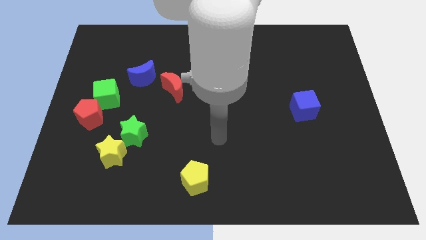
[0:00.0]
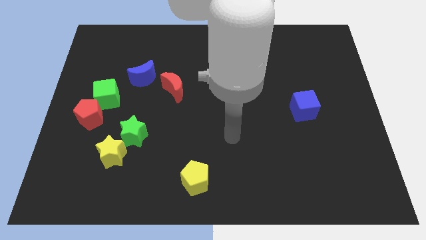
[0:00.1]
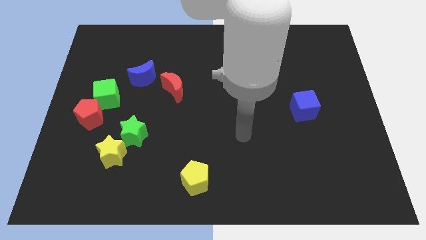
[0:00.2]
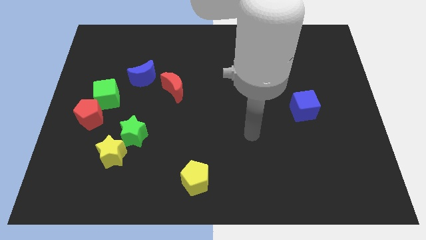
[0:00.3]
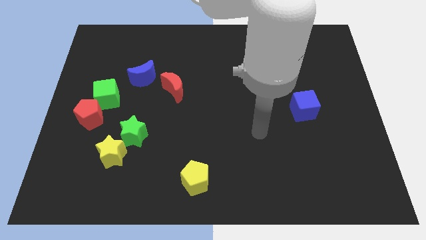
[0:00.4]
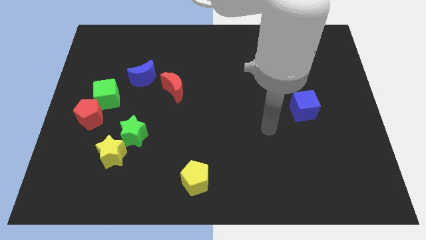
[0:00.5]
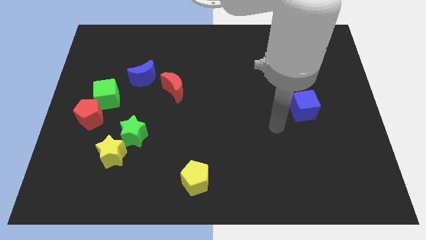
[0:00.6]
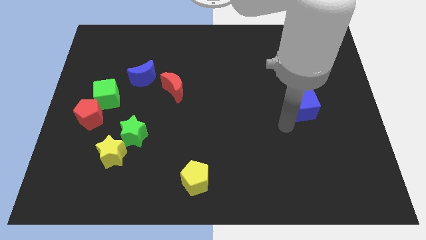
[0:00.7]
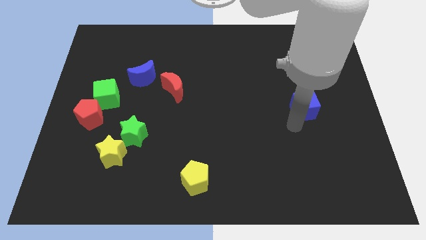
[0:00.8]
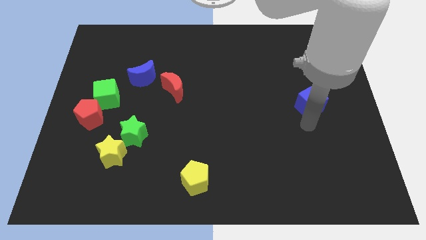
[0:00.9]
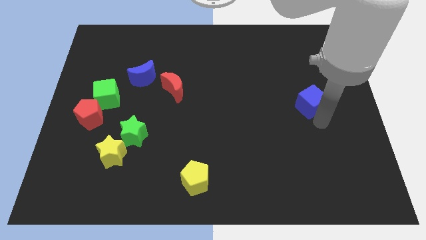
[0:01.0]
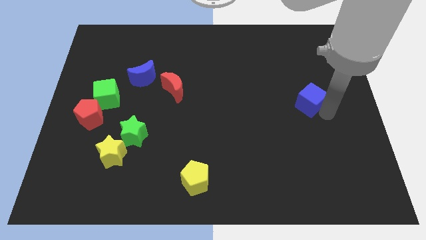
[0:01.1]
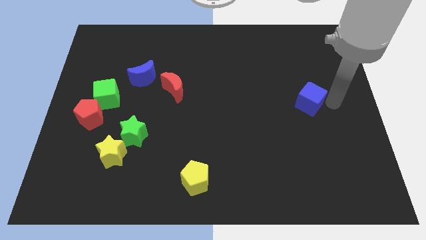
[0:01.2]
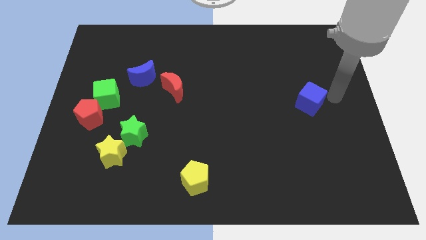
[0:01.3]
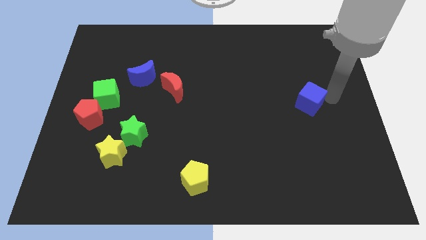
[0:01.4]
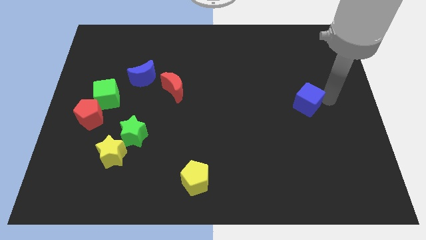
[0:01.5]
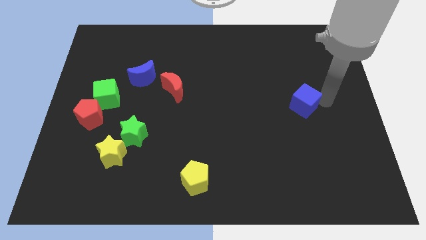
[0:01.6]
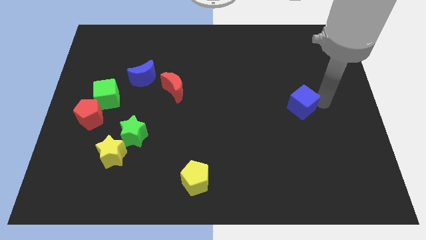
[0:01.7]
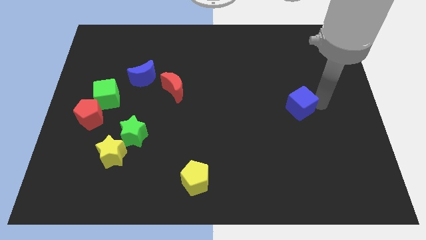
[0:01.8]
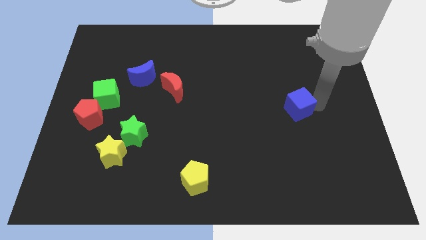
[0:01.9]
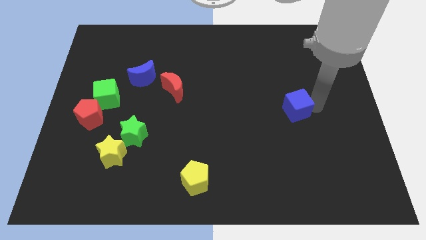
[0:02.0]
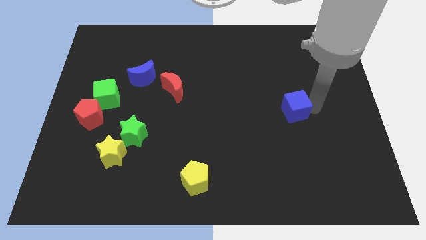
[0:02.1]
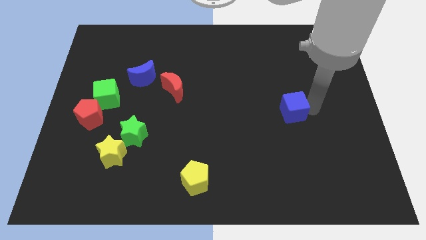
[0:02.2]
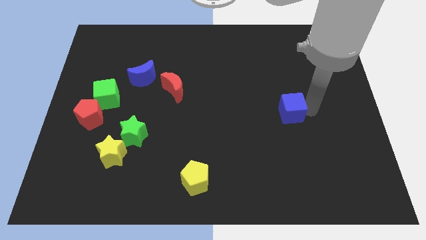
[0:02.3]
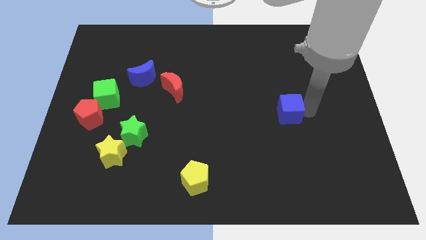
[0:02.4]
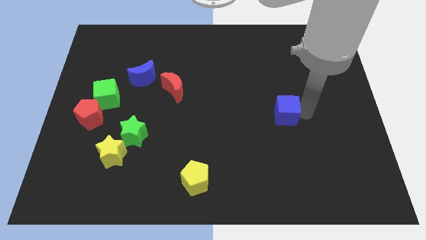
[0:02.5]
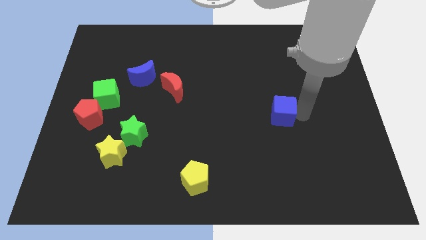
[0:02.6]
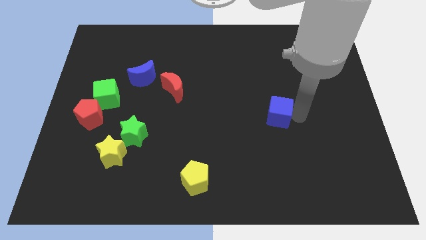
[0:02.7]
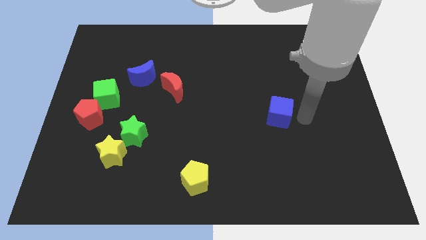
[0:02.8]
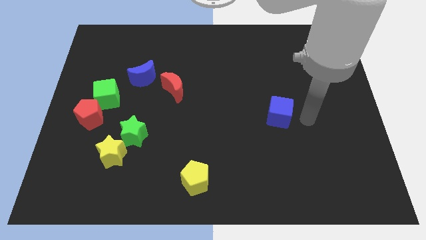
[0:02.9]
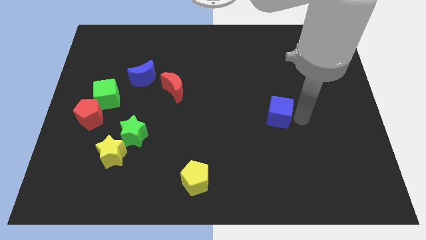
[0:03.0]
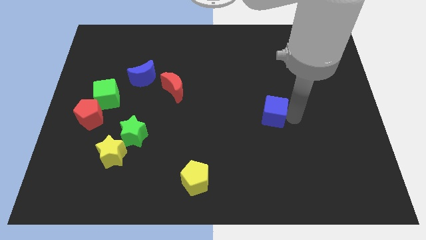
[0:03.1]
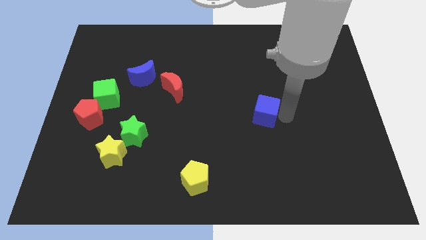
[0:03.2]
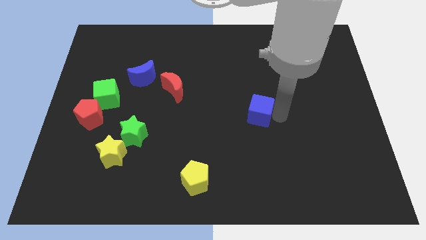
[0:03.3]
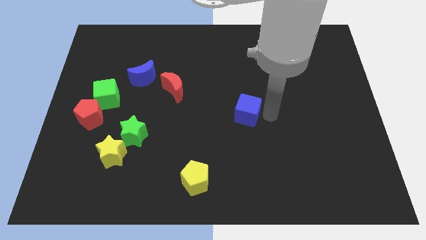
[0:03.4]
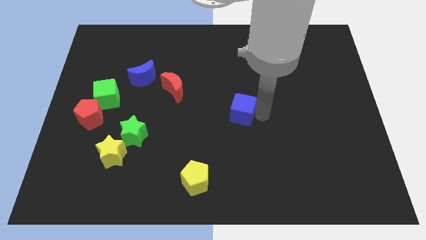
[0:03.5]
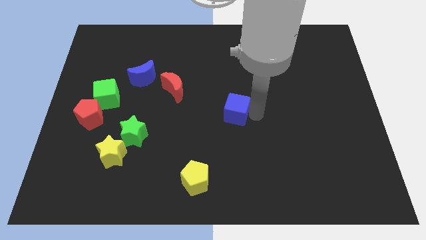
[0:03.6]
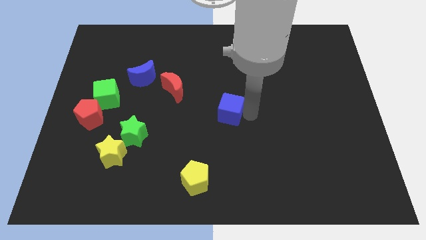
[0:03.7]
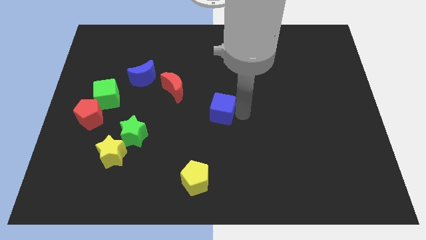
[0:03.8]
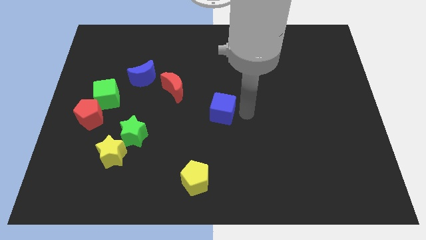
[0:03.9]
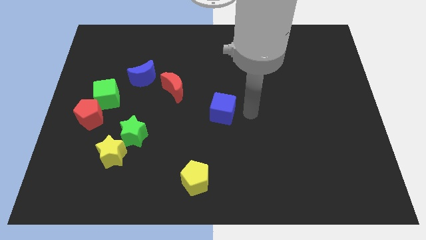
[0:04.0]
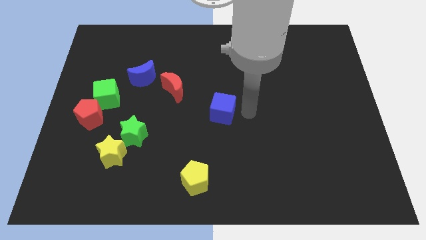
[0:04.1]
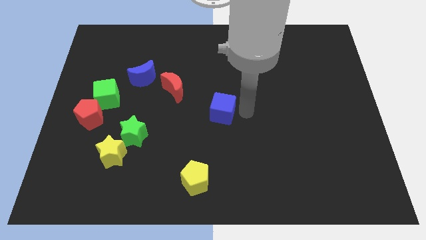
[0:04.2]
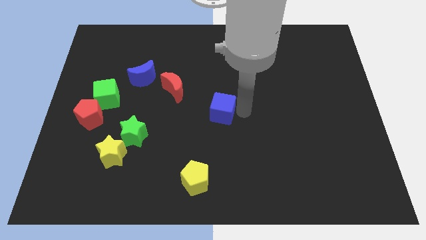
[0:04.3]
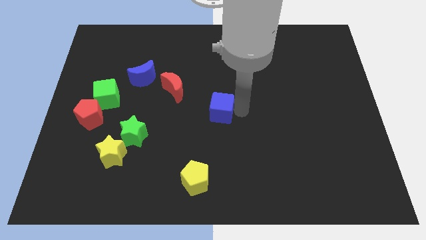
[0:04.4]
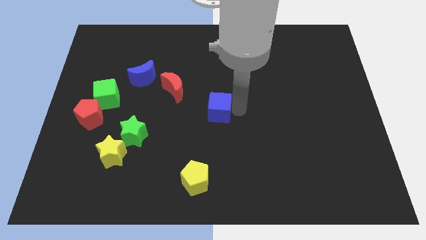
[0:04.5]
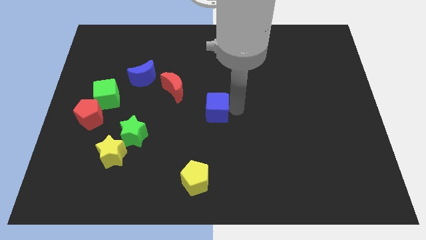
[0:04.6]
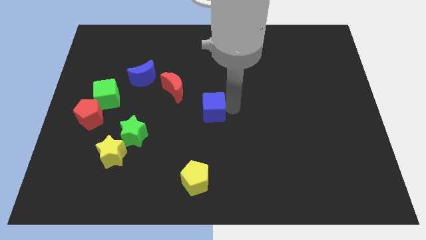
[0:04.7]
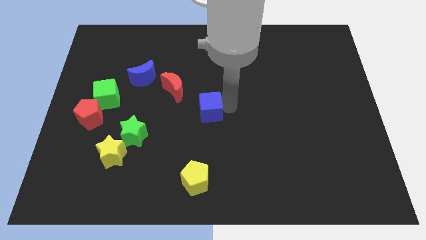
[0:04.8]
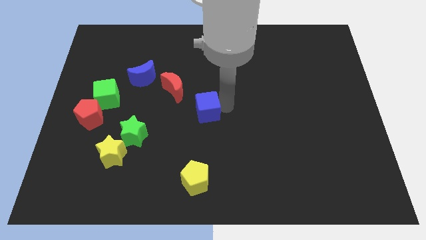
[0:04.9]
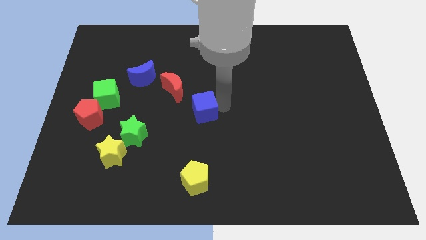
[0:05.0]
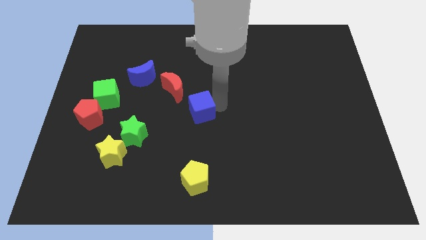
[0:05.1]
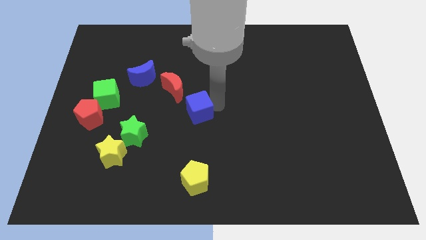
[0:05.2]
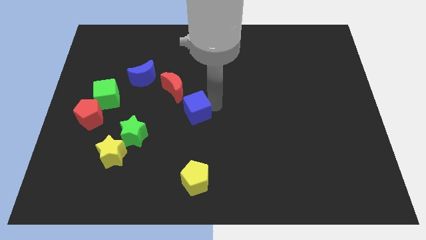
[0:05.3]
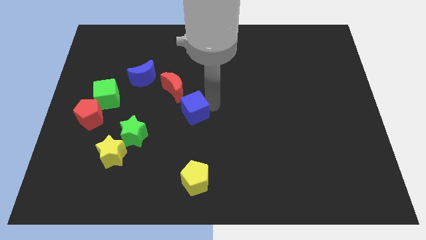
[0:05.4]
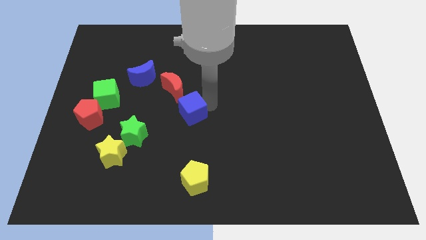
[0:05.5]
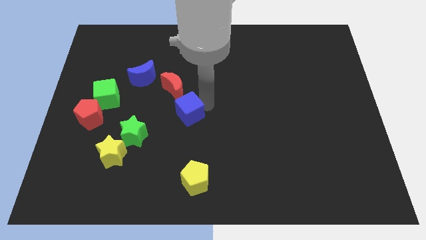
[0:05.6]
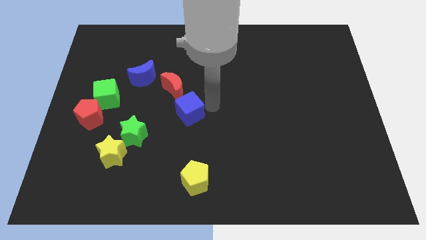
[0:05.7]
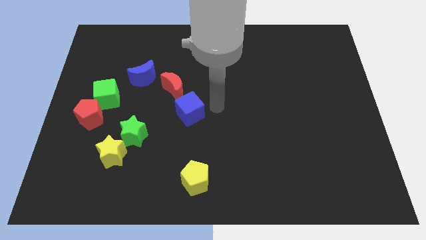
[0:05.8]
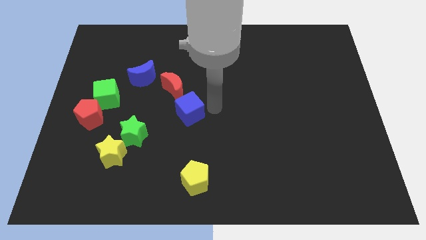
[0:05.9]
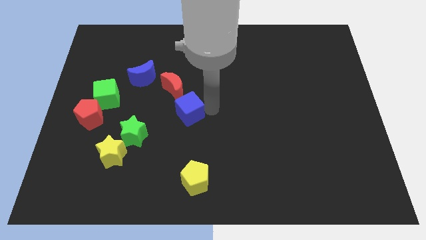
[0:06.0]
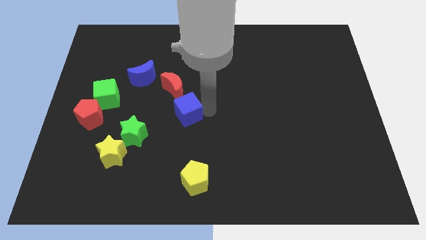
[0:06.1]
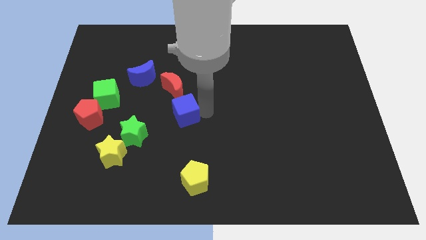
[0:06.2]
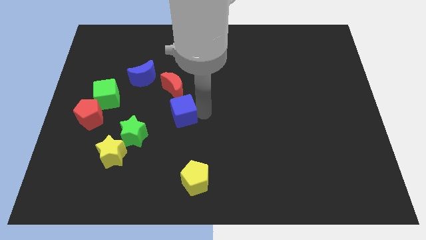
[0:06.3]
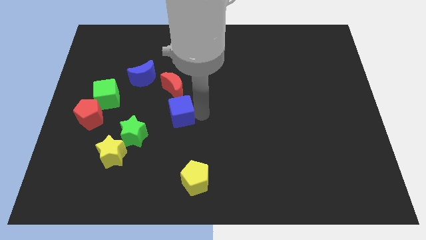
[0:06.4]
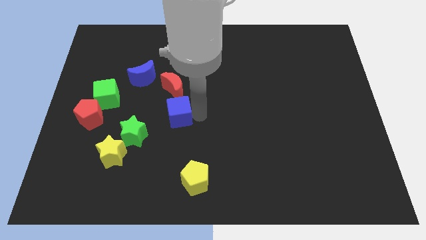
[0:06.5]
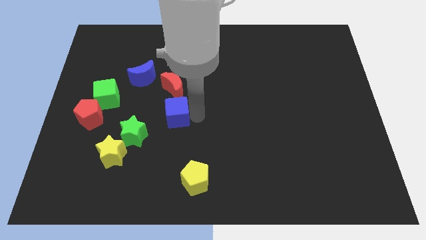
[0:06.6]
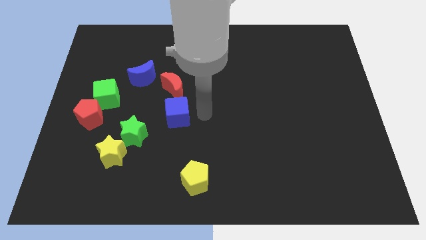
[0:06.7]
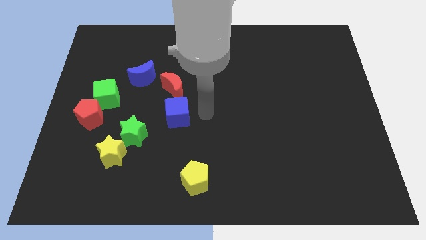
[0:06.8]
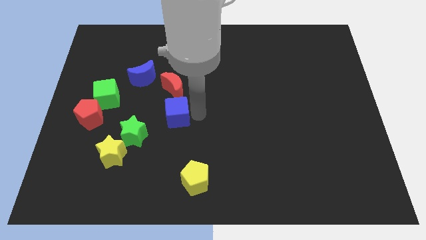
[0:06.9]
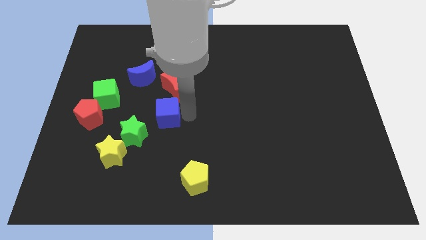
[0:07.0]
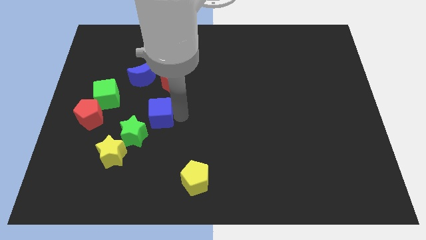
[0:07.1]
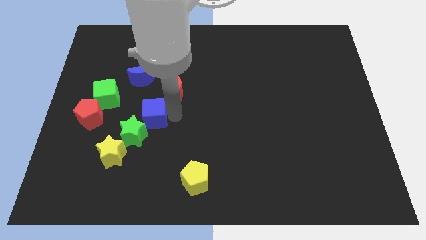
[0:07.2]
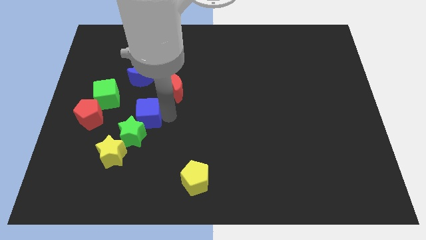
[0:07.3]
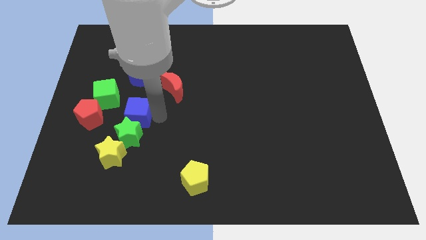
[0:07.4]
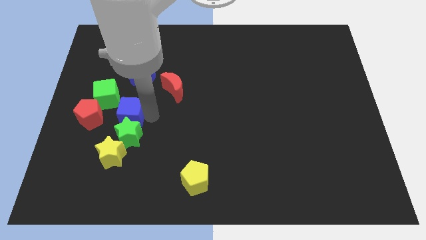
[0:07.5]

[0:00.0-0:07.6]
move the blue cube diagonally up and to the left of the green star
